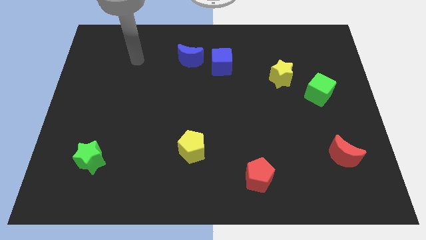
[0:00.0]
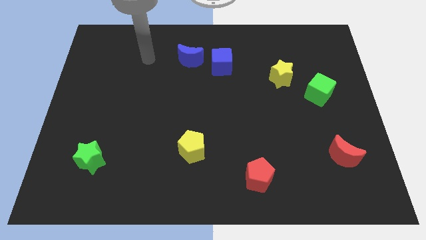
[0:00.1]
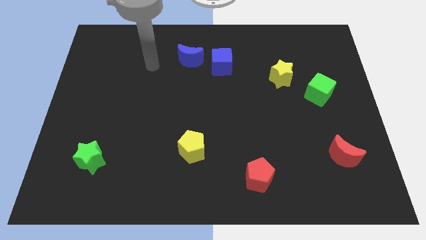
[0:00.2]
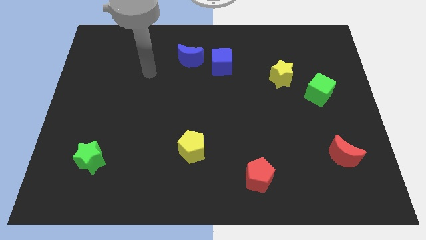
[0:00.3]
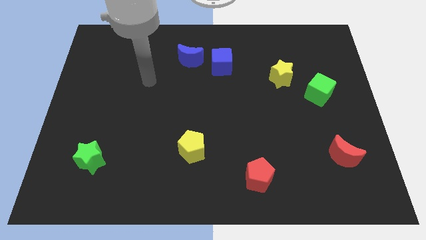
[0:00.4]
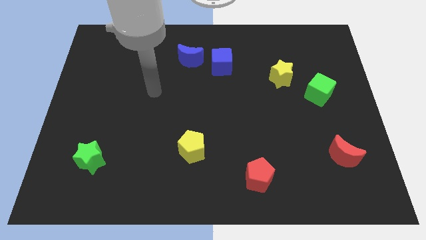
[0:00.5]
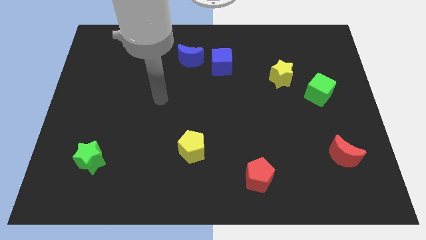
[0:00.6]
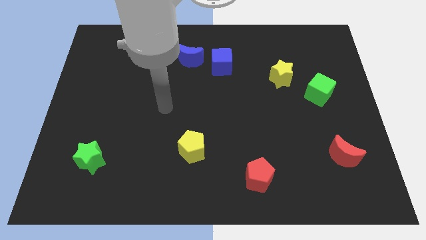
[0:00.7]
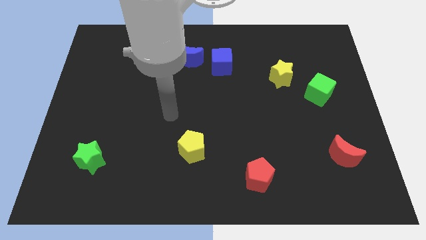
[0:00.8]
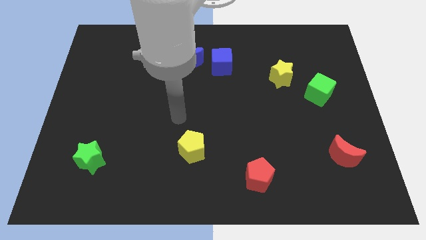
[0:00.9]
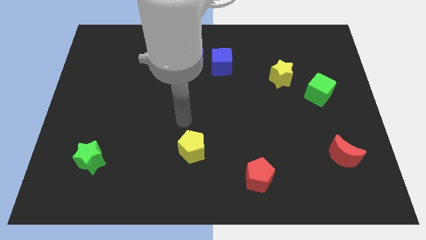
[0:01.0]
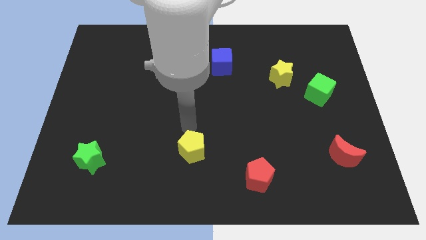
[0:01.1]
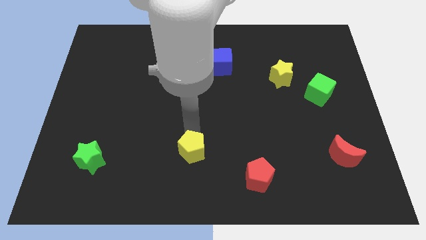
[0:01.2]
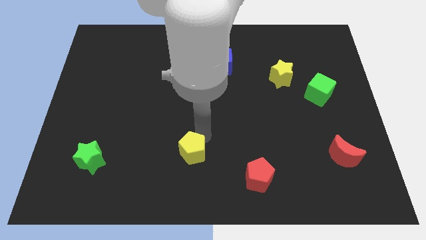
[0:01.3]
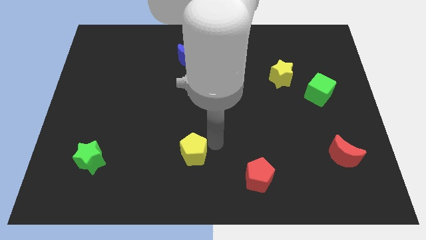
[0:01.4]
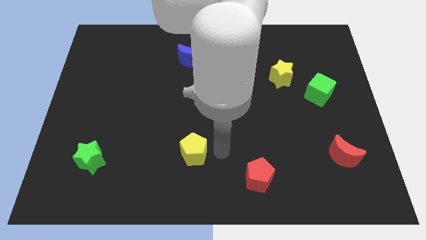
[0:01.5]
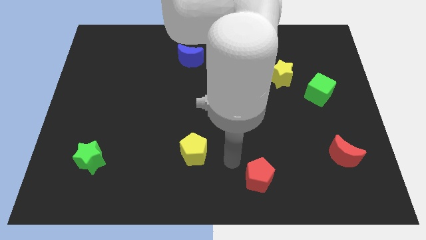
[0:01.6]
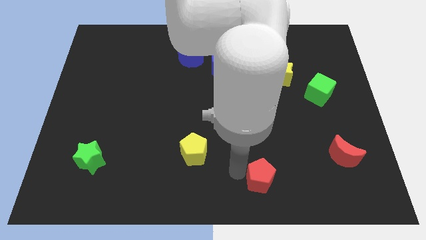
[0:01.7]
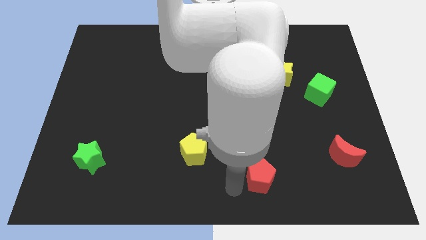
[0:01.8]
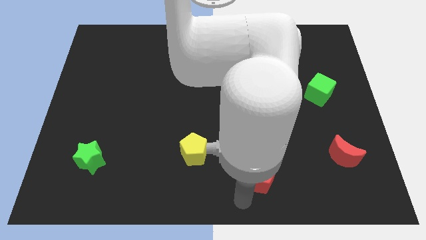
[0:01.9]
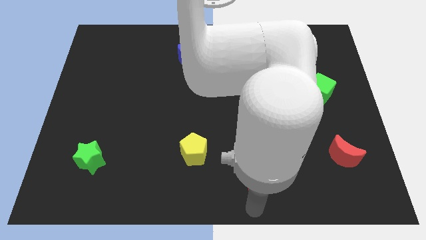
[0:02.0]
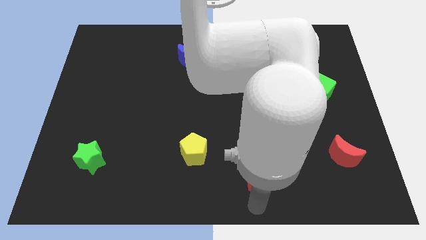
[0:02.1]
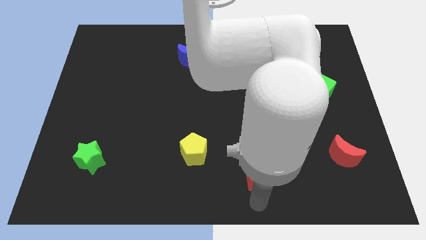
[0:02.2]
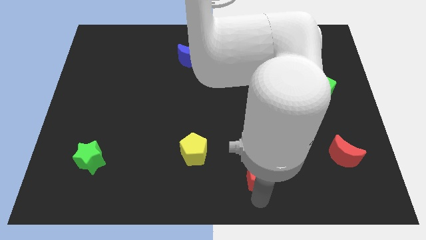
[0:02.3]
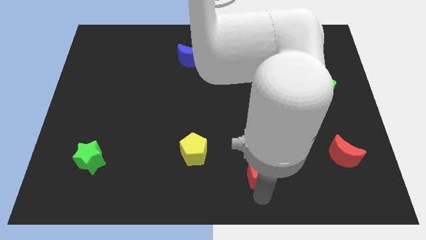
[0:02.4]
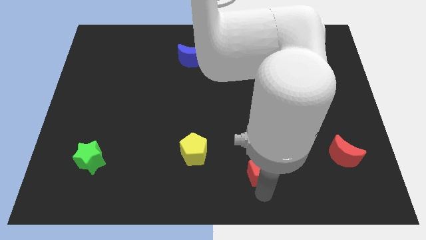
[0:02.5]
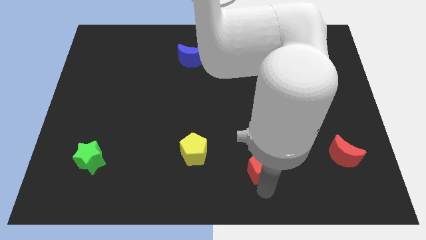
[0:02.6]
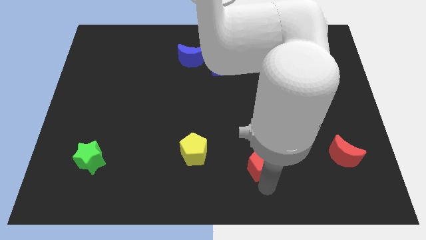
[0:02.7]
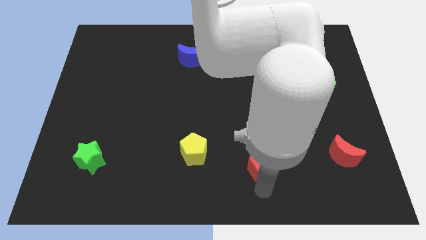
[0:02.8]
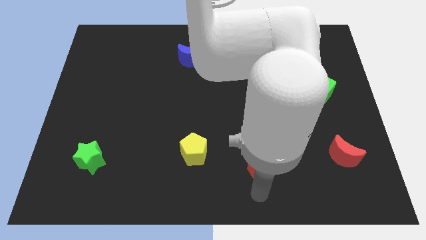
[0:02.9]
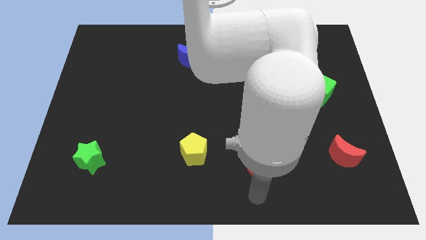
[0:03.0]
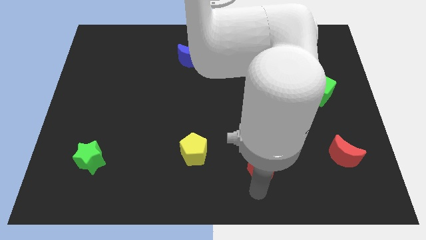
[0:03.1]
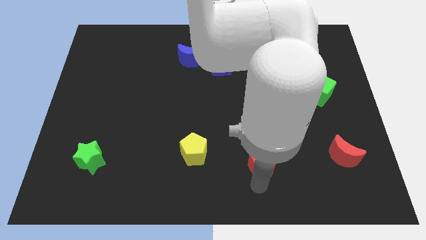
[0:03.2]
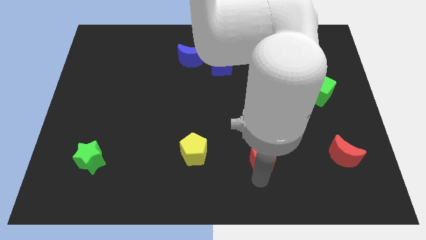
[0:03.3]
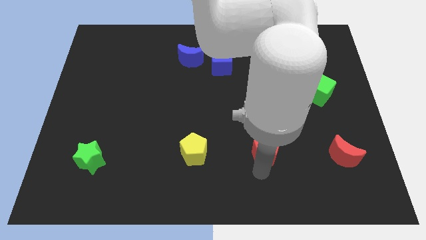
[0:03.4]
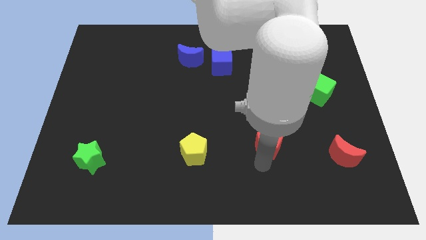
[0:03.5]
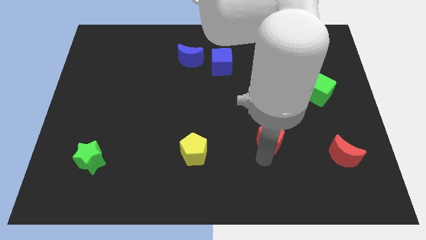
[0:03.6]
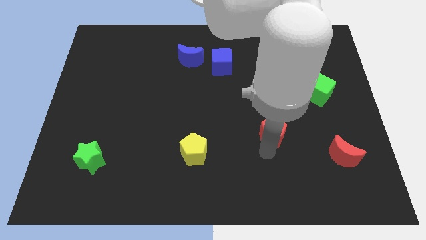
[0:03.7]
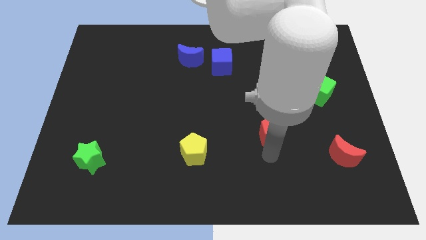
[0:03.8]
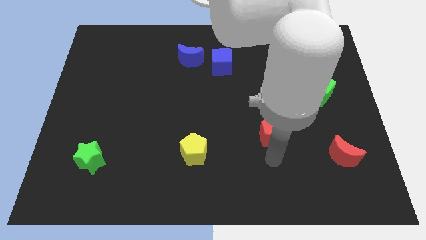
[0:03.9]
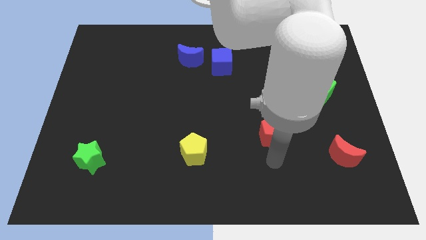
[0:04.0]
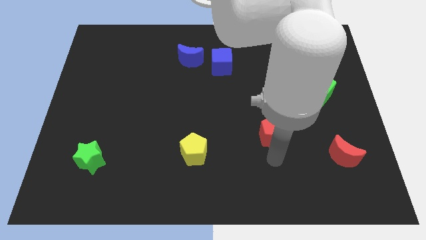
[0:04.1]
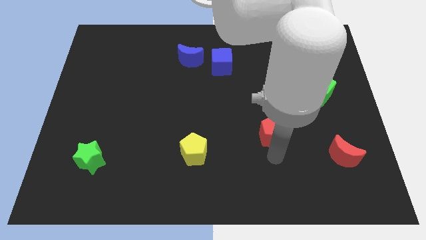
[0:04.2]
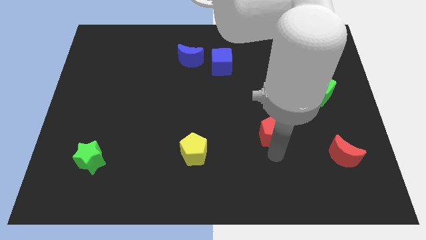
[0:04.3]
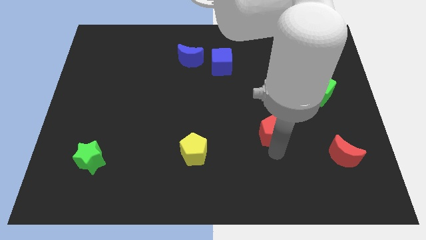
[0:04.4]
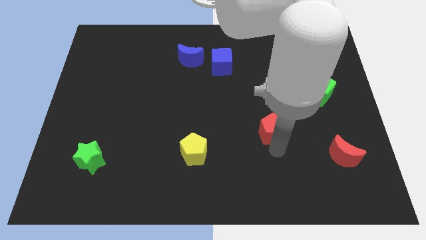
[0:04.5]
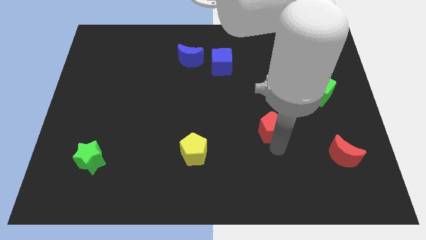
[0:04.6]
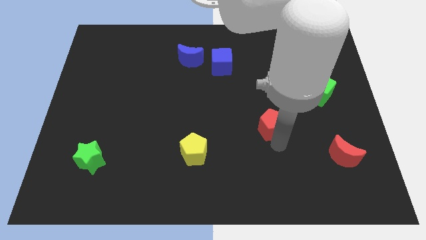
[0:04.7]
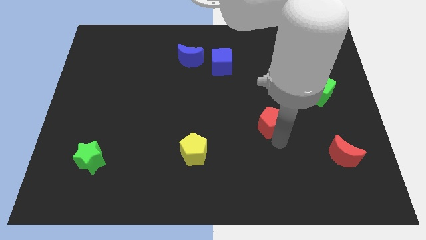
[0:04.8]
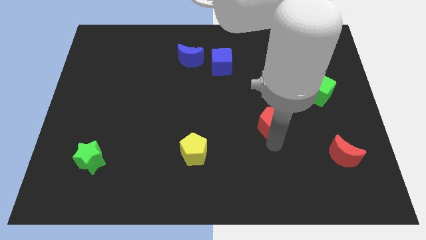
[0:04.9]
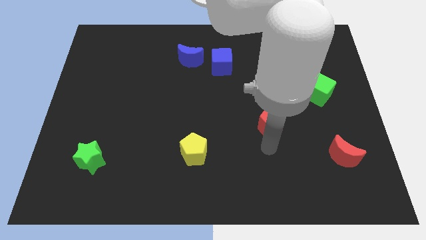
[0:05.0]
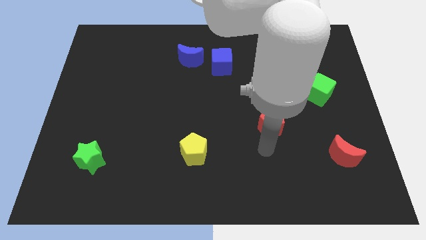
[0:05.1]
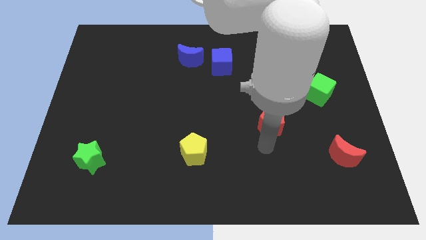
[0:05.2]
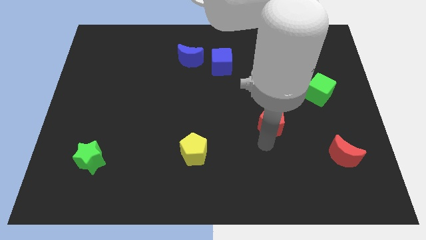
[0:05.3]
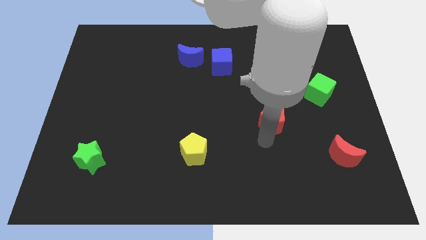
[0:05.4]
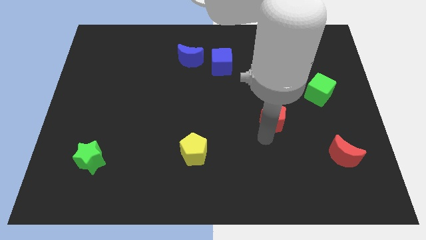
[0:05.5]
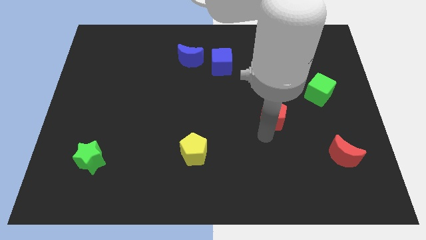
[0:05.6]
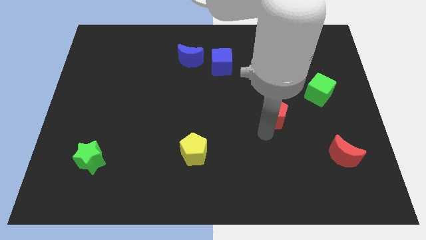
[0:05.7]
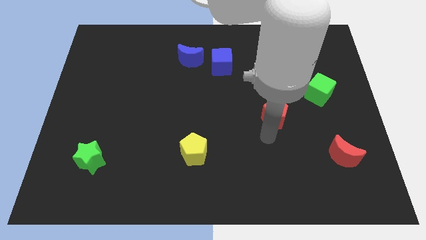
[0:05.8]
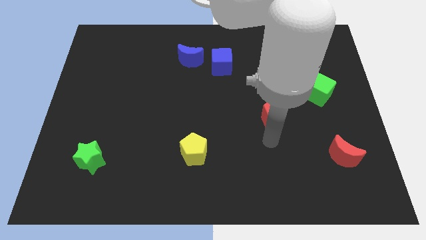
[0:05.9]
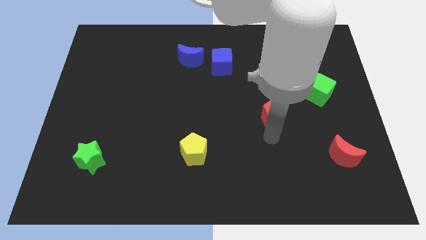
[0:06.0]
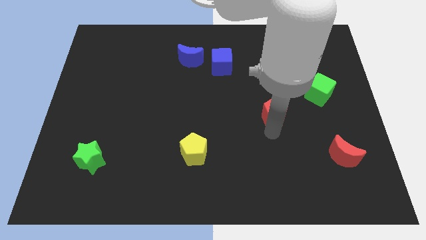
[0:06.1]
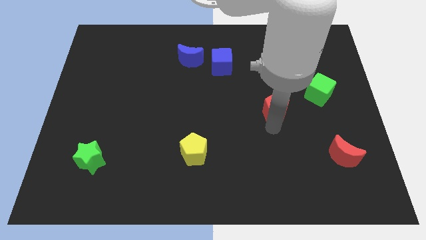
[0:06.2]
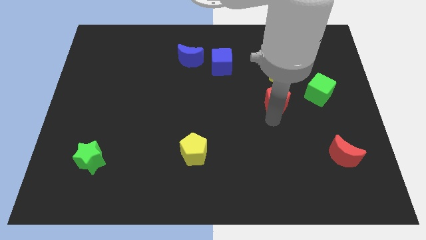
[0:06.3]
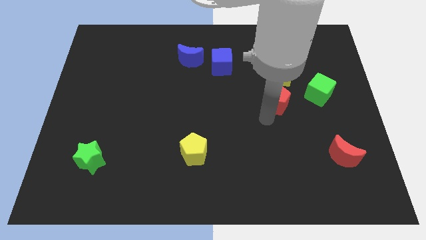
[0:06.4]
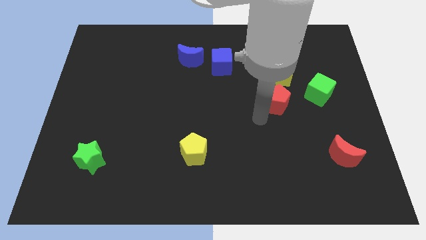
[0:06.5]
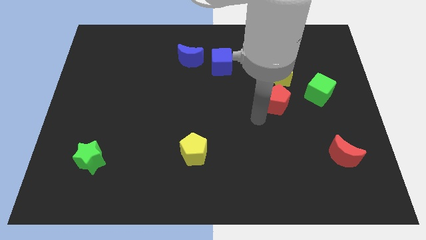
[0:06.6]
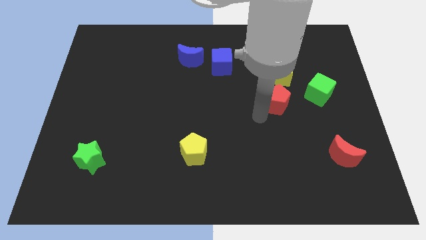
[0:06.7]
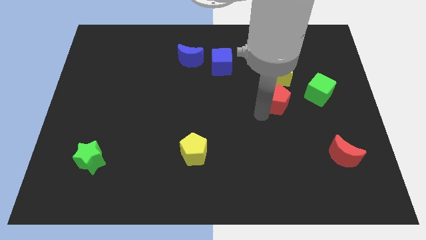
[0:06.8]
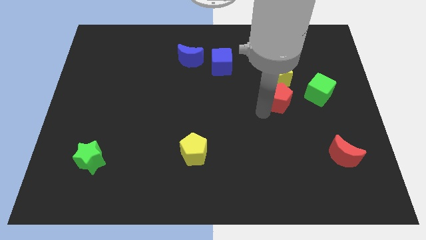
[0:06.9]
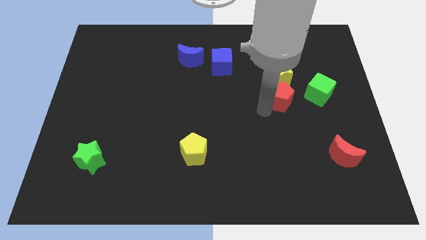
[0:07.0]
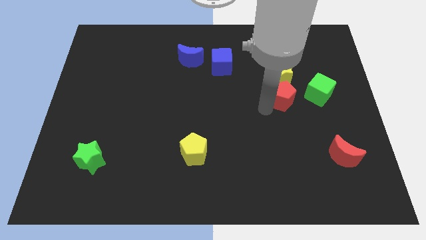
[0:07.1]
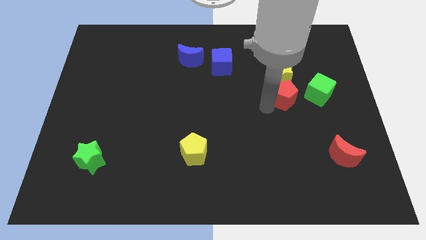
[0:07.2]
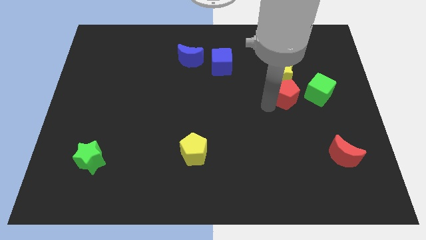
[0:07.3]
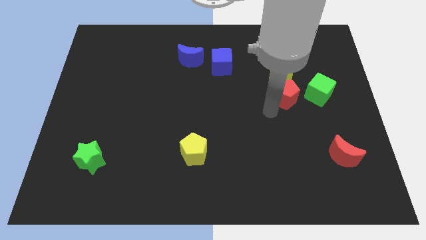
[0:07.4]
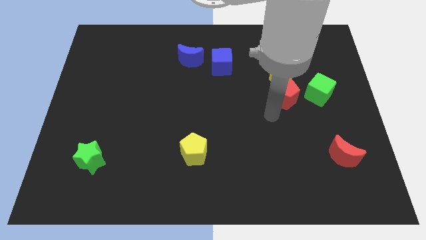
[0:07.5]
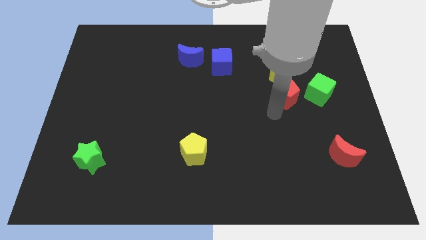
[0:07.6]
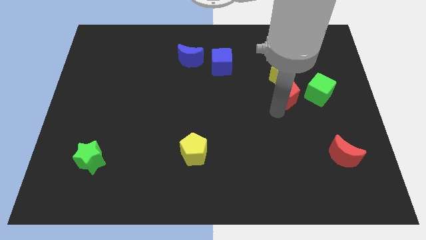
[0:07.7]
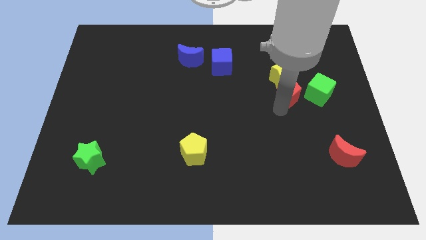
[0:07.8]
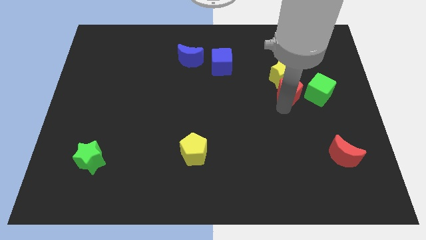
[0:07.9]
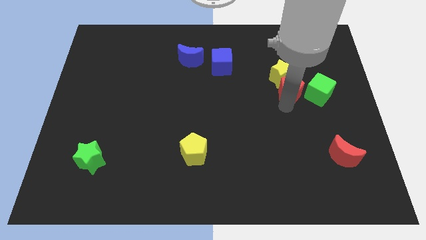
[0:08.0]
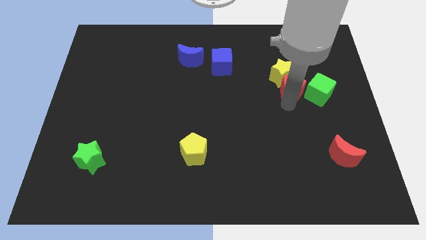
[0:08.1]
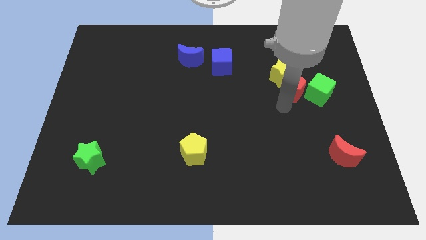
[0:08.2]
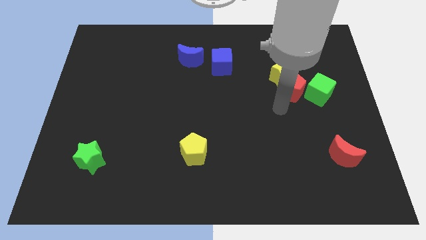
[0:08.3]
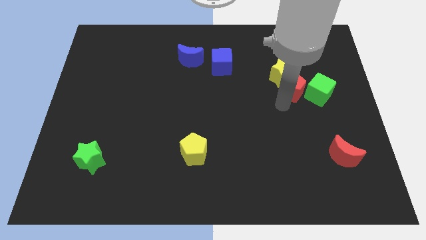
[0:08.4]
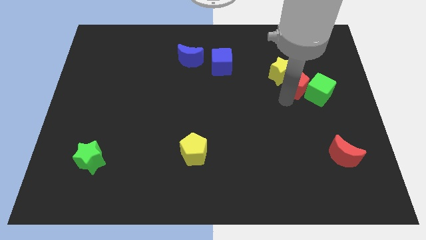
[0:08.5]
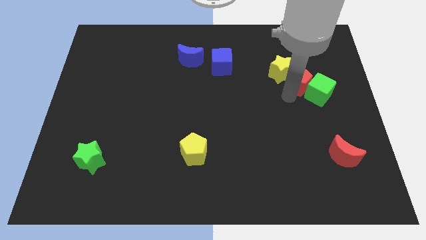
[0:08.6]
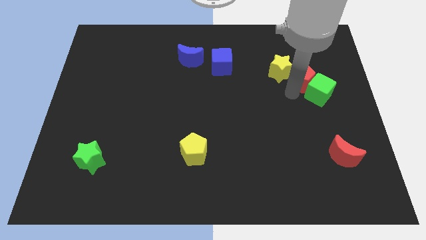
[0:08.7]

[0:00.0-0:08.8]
put the red pentagon above the green cube
